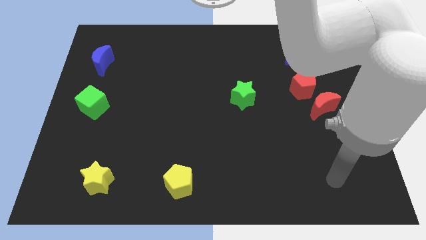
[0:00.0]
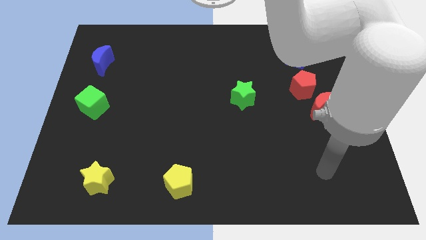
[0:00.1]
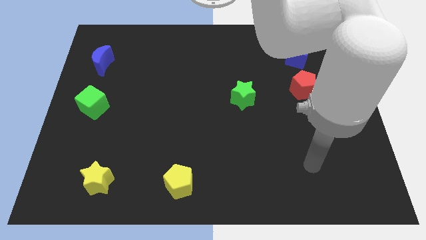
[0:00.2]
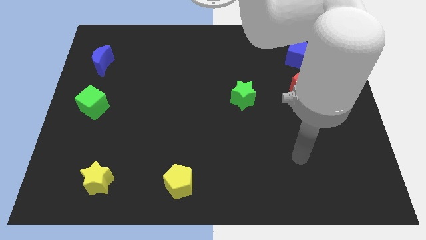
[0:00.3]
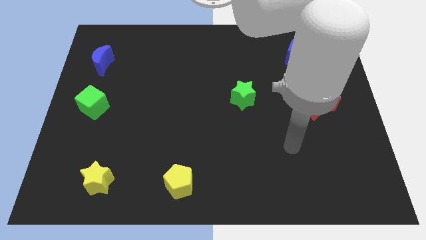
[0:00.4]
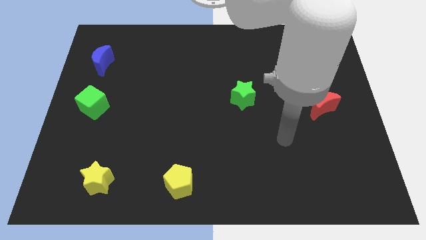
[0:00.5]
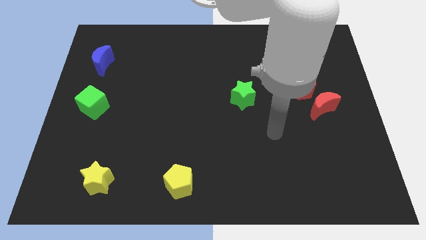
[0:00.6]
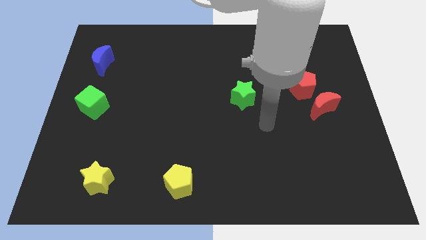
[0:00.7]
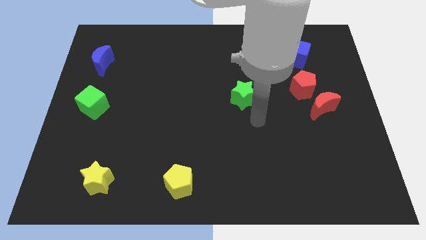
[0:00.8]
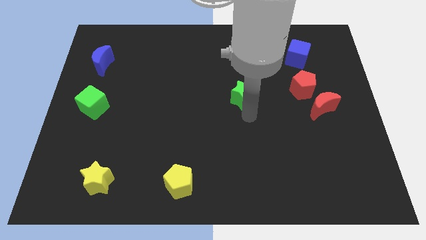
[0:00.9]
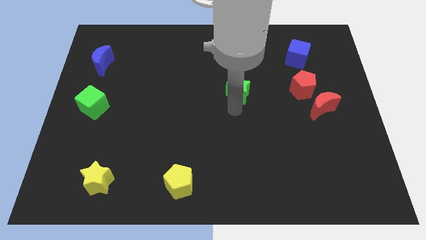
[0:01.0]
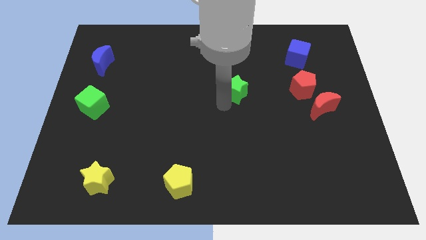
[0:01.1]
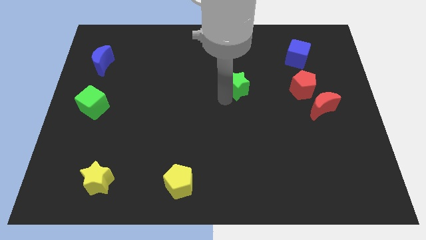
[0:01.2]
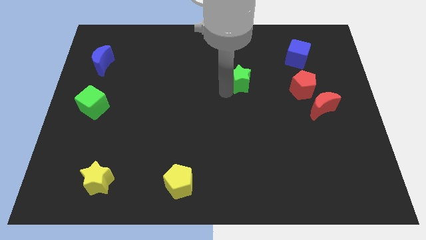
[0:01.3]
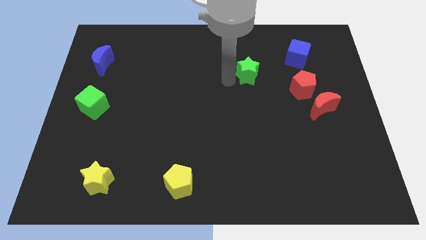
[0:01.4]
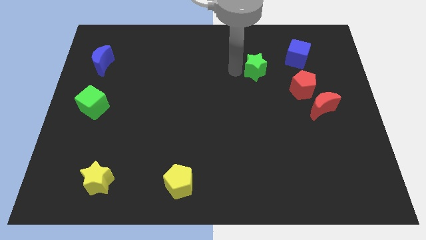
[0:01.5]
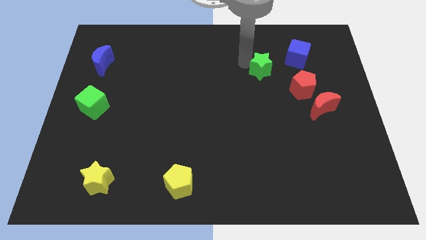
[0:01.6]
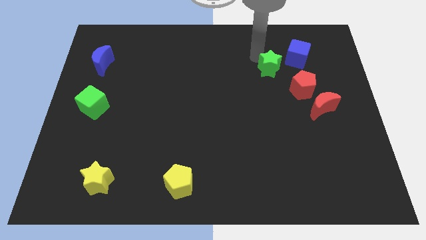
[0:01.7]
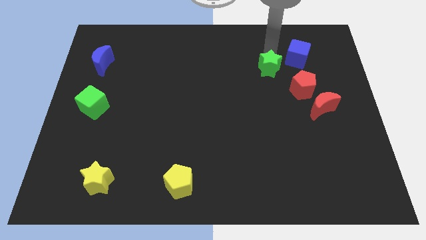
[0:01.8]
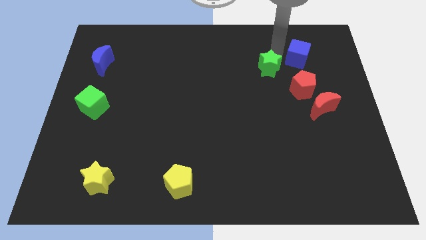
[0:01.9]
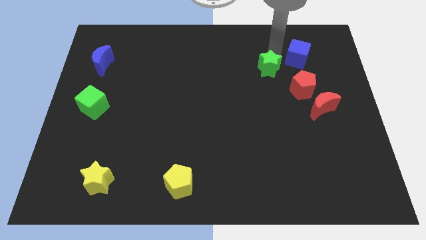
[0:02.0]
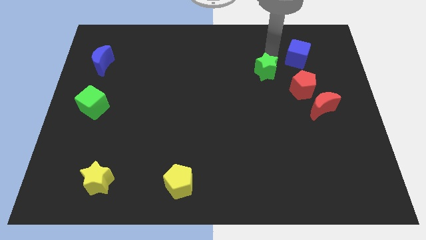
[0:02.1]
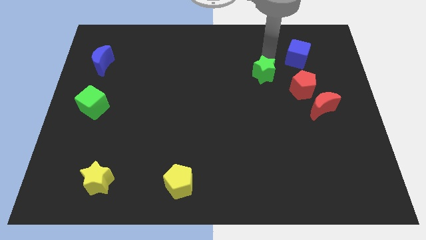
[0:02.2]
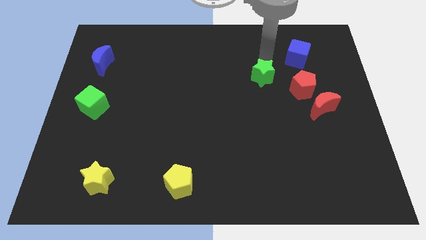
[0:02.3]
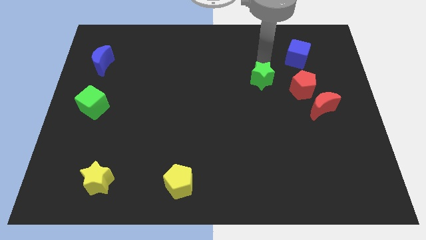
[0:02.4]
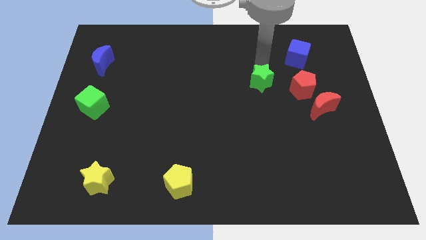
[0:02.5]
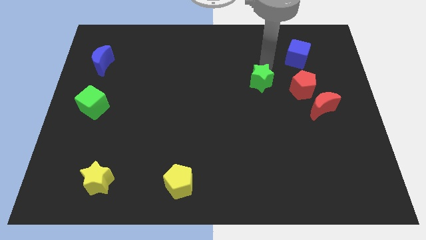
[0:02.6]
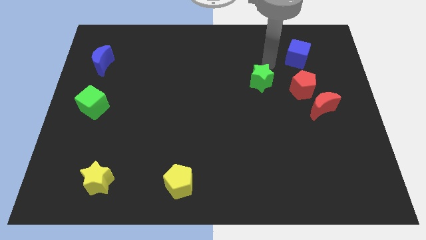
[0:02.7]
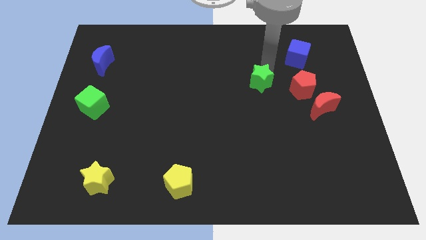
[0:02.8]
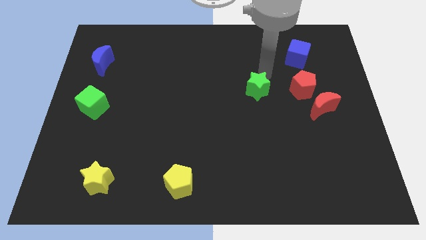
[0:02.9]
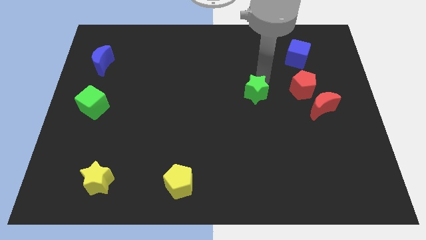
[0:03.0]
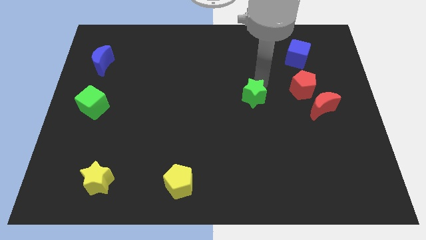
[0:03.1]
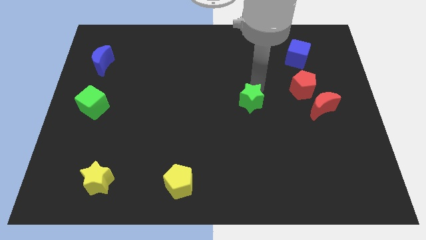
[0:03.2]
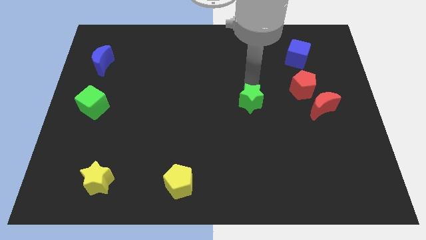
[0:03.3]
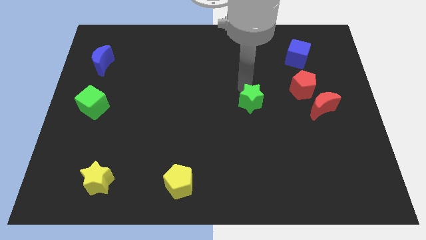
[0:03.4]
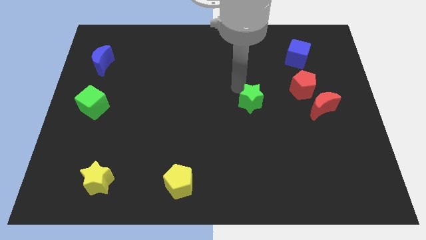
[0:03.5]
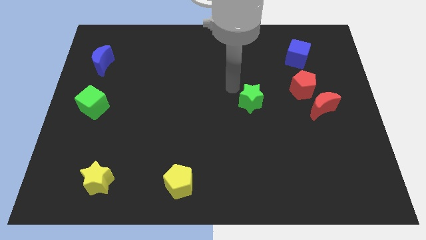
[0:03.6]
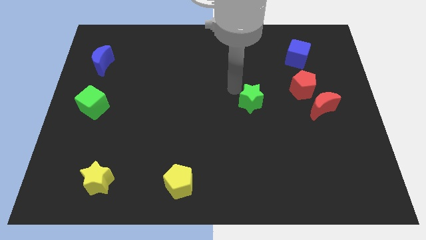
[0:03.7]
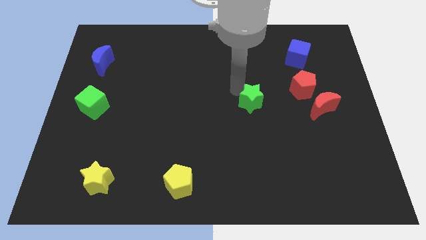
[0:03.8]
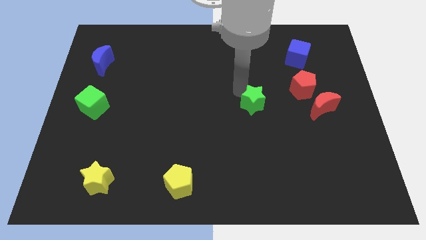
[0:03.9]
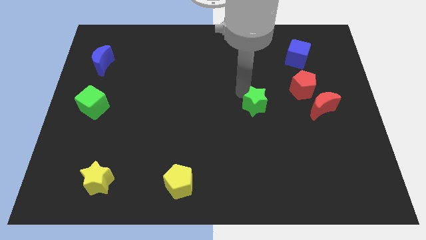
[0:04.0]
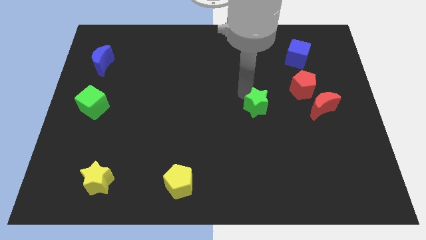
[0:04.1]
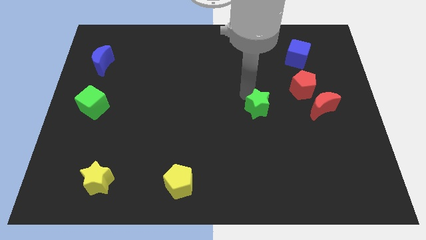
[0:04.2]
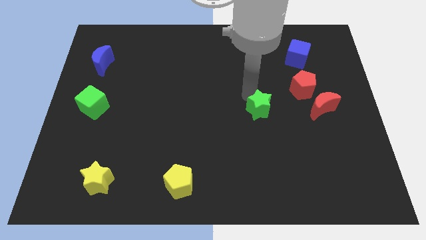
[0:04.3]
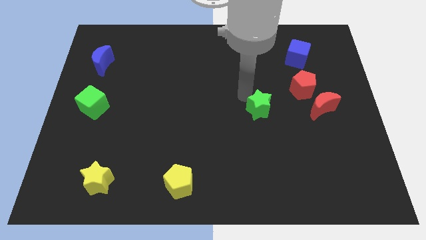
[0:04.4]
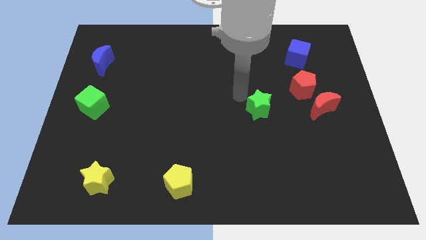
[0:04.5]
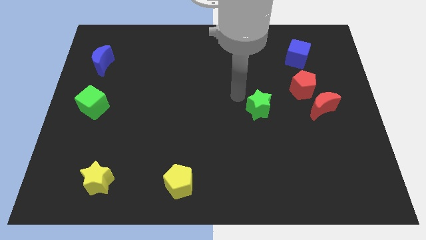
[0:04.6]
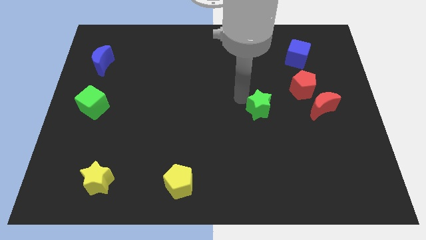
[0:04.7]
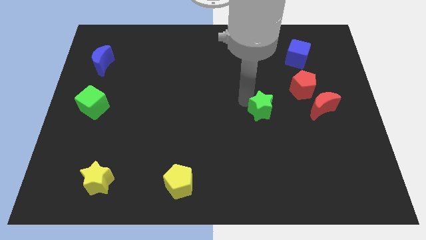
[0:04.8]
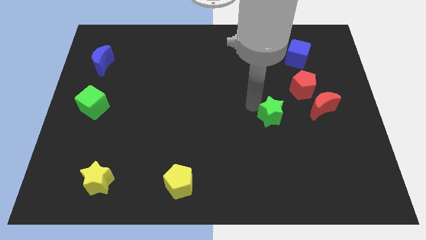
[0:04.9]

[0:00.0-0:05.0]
slightly slide the green star down and to the right

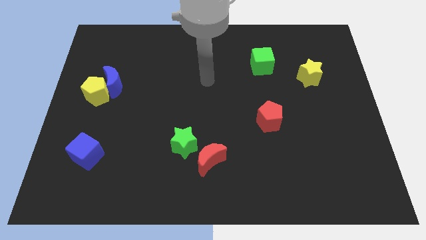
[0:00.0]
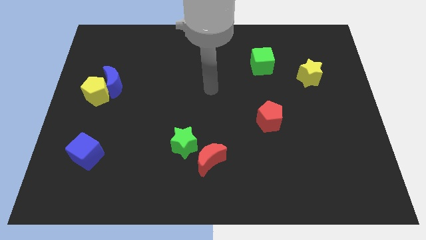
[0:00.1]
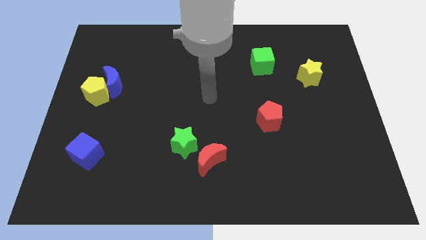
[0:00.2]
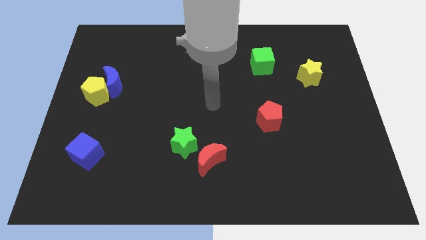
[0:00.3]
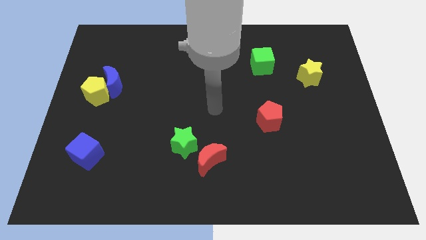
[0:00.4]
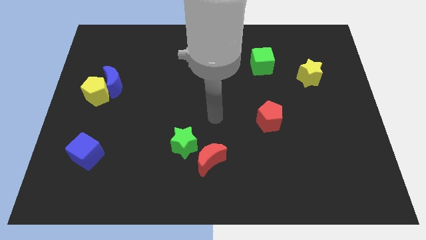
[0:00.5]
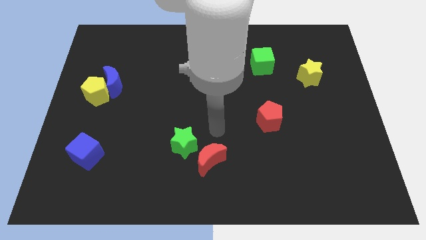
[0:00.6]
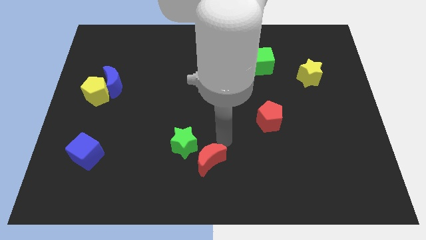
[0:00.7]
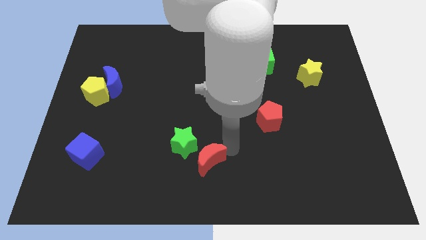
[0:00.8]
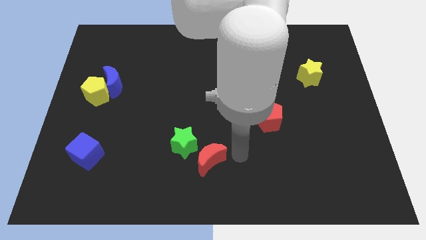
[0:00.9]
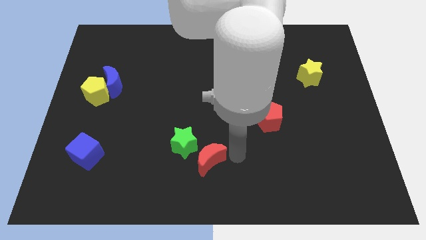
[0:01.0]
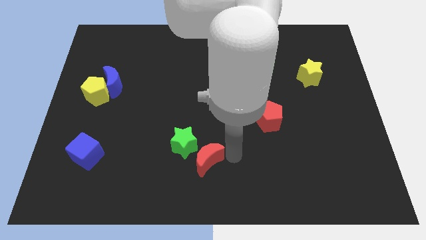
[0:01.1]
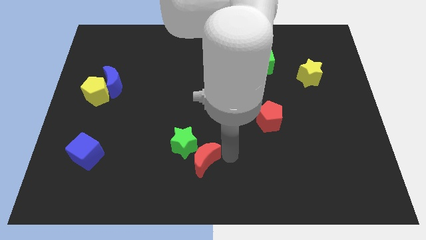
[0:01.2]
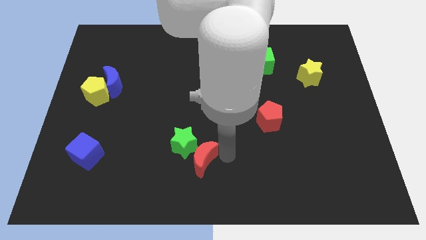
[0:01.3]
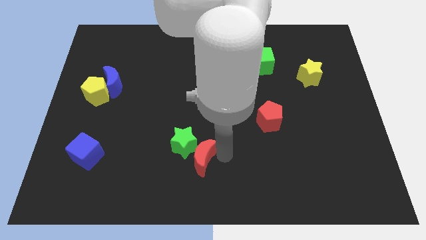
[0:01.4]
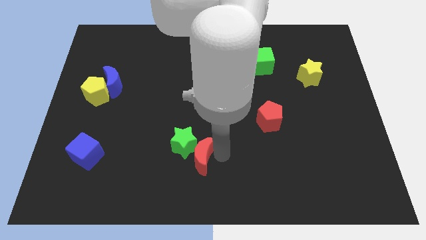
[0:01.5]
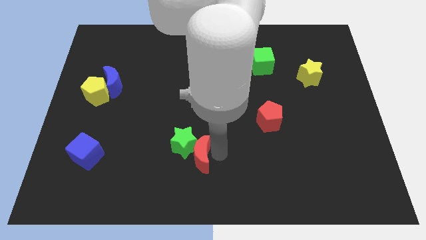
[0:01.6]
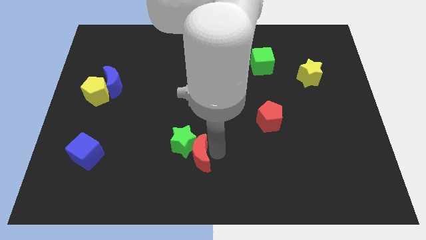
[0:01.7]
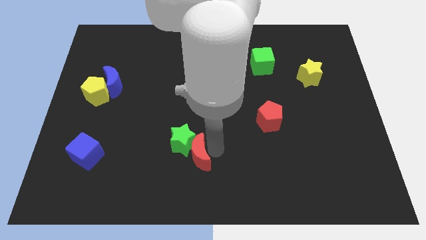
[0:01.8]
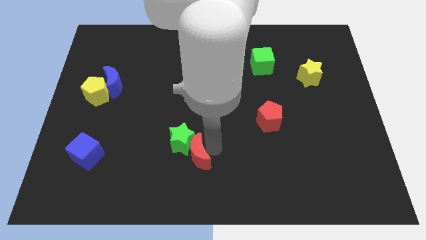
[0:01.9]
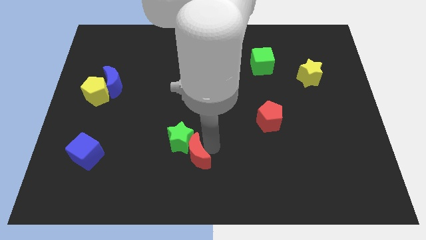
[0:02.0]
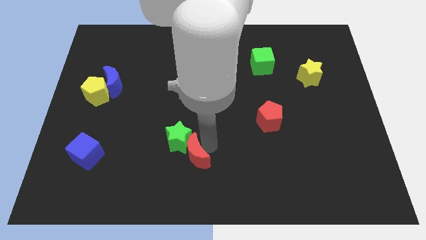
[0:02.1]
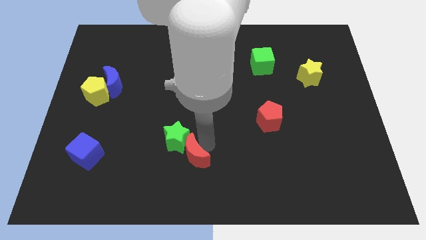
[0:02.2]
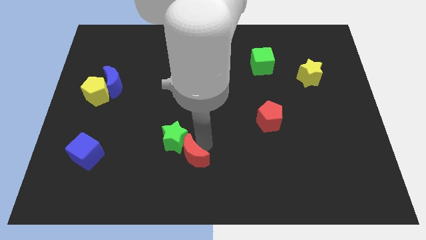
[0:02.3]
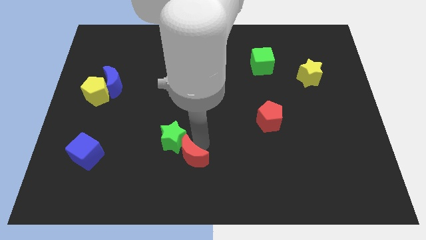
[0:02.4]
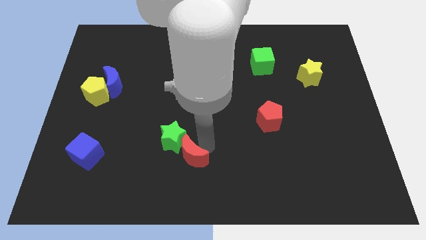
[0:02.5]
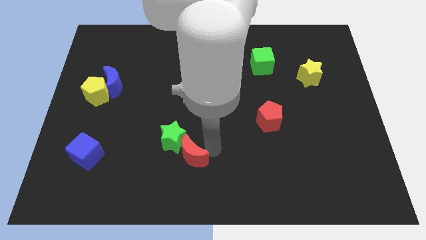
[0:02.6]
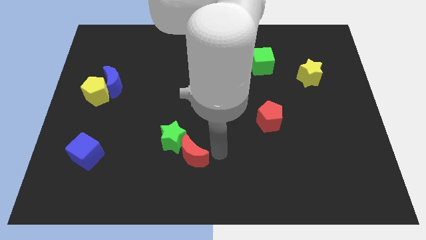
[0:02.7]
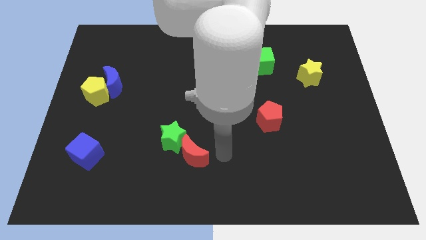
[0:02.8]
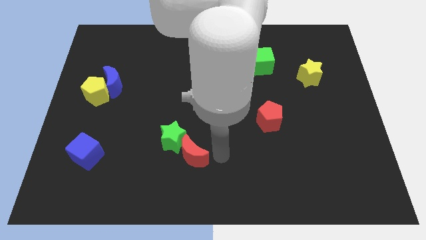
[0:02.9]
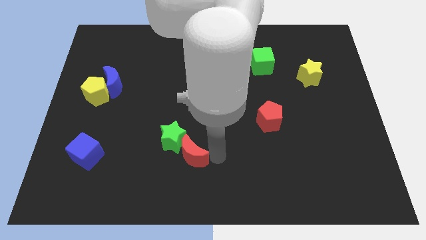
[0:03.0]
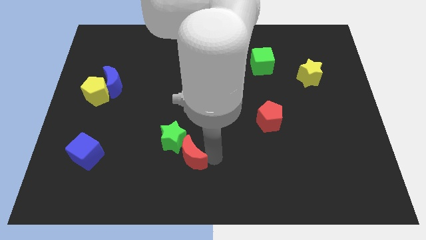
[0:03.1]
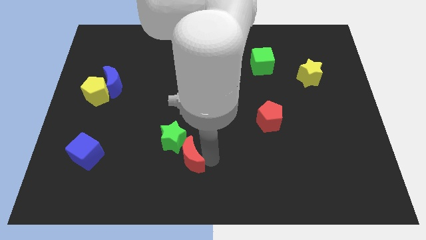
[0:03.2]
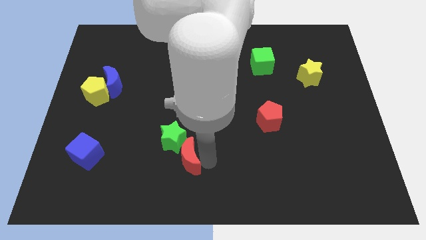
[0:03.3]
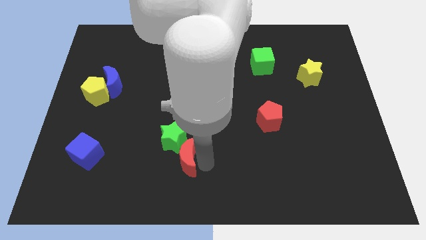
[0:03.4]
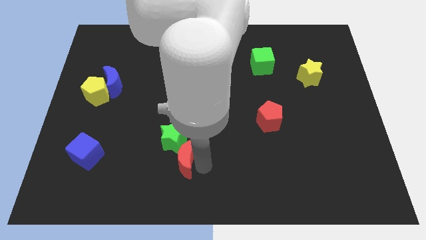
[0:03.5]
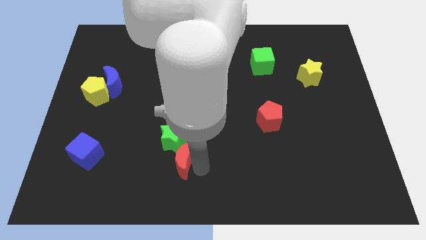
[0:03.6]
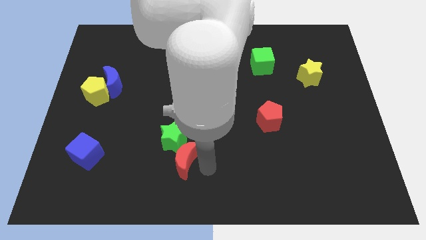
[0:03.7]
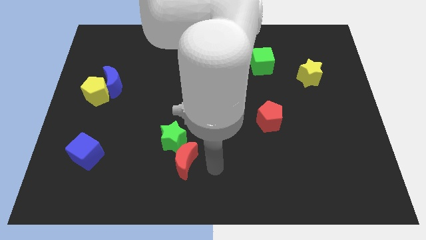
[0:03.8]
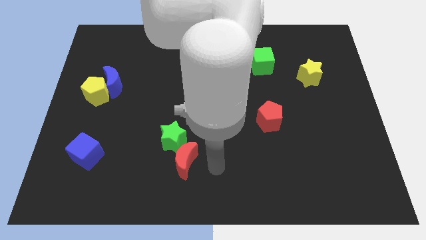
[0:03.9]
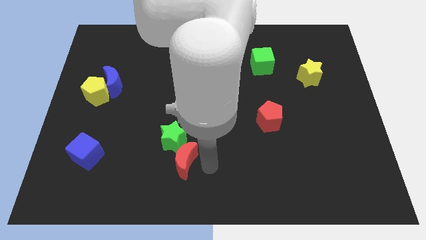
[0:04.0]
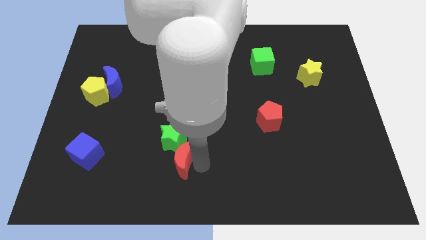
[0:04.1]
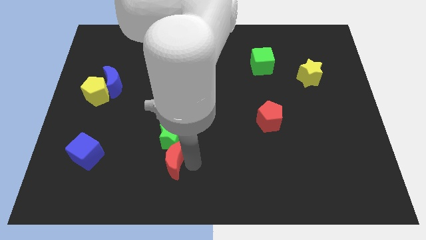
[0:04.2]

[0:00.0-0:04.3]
move the red moon slightly left
